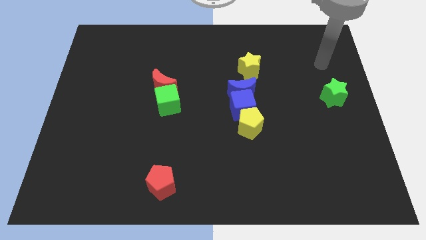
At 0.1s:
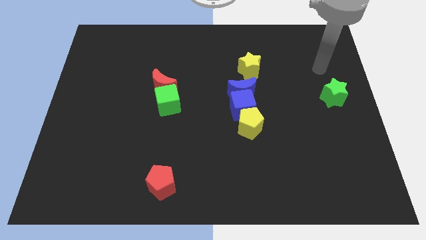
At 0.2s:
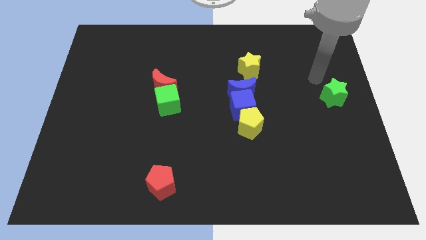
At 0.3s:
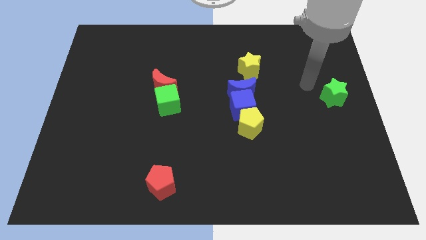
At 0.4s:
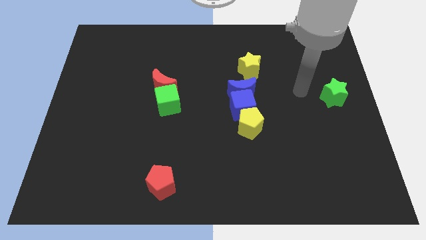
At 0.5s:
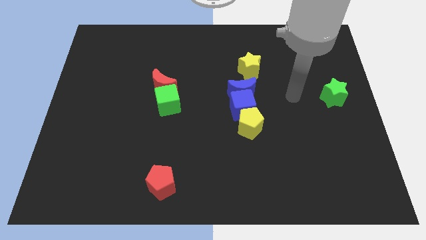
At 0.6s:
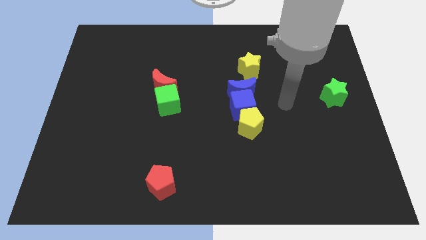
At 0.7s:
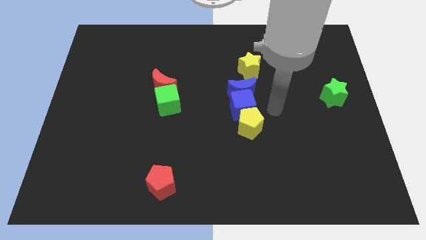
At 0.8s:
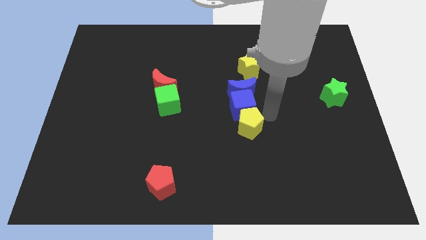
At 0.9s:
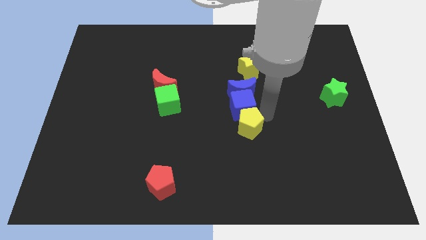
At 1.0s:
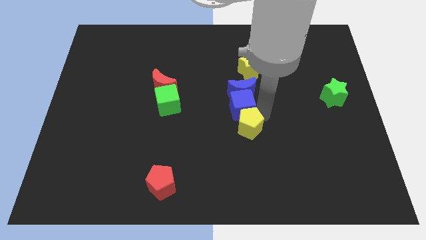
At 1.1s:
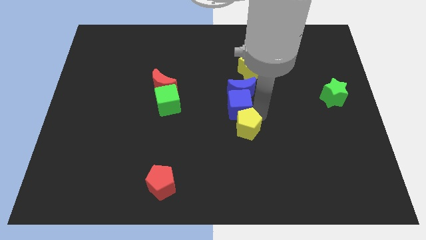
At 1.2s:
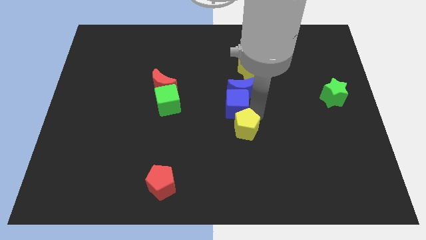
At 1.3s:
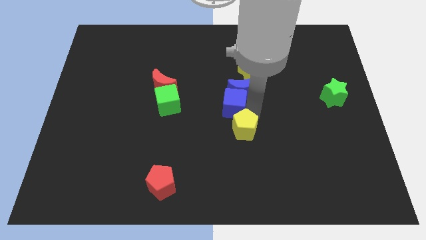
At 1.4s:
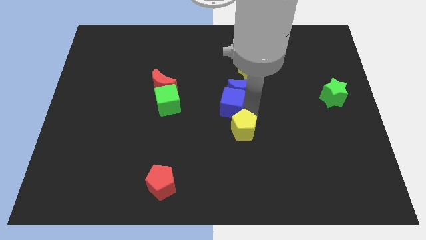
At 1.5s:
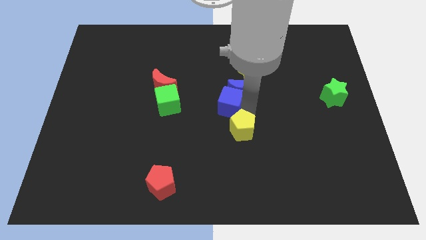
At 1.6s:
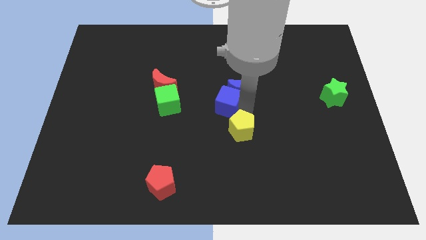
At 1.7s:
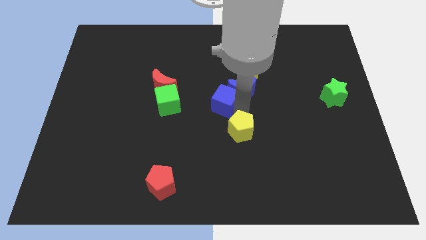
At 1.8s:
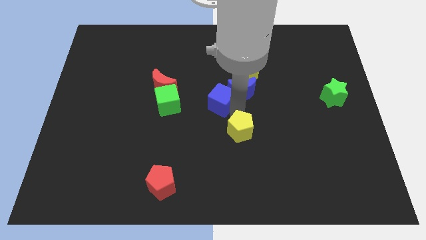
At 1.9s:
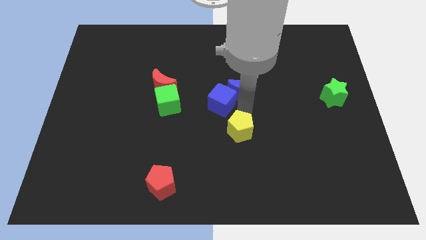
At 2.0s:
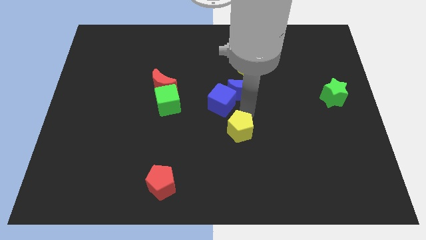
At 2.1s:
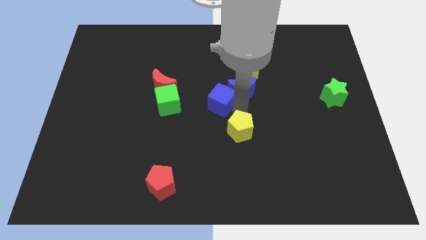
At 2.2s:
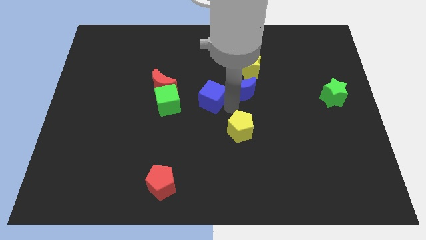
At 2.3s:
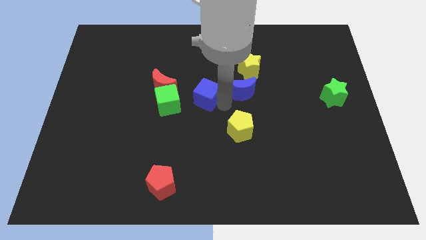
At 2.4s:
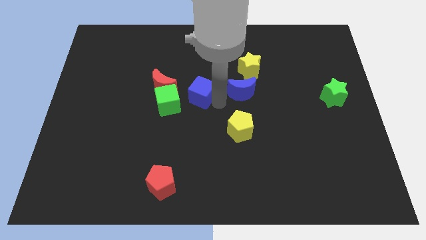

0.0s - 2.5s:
move the blue cube away from the blue moon and yellow pentagon

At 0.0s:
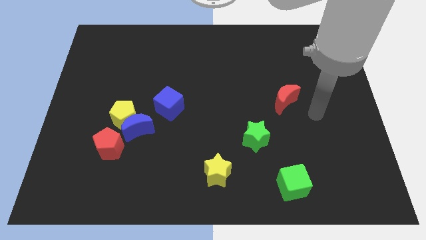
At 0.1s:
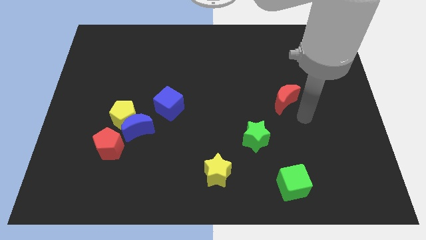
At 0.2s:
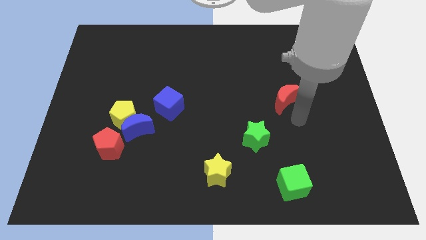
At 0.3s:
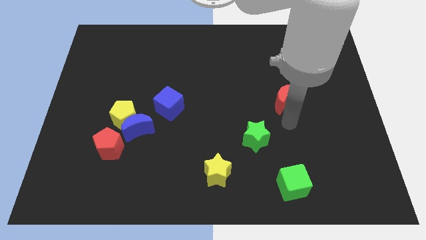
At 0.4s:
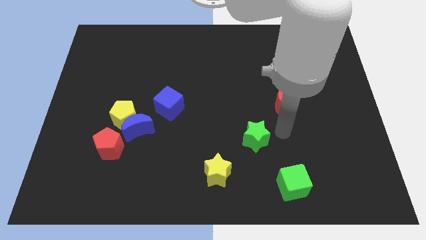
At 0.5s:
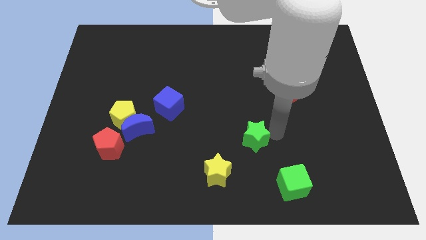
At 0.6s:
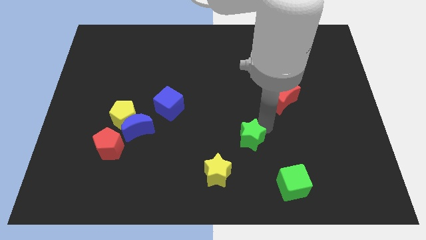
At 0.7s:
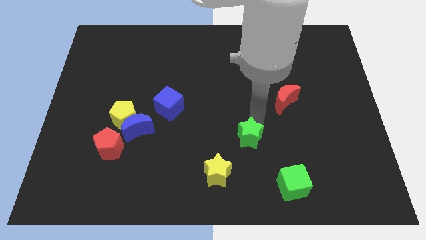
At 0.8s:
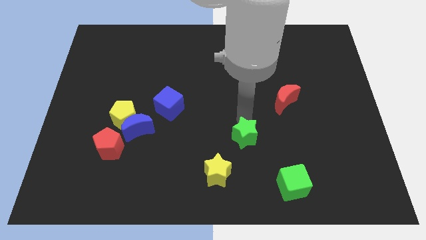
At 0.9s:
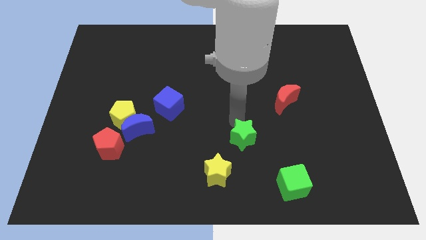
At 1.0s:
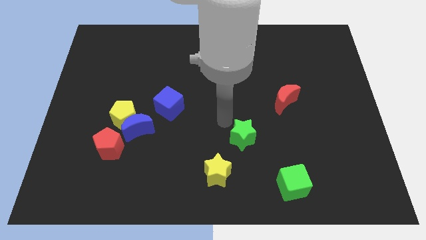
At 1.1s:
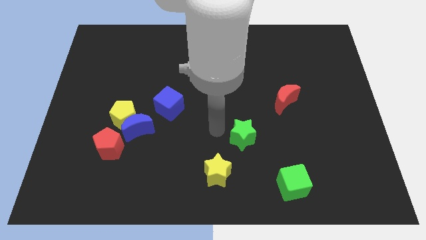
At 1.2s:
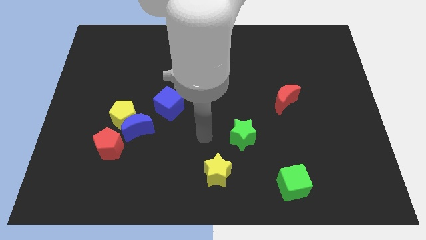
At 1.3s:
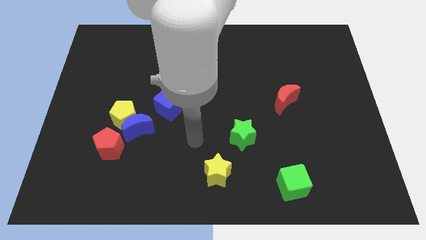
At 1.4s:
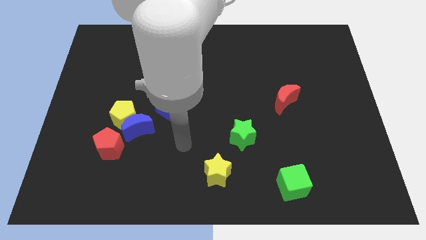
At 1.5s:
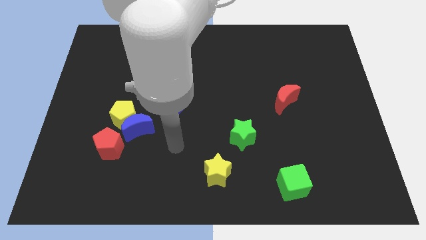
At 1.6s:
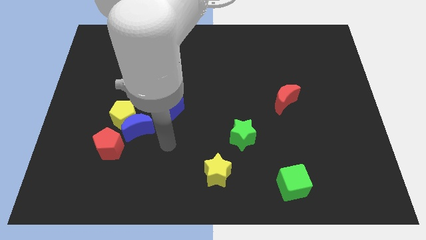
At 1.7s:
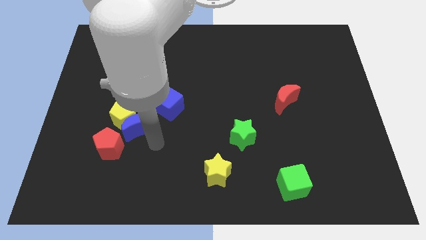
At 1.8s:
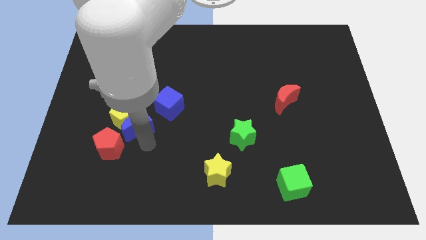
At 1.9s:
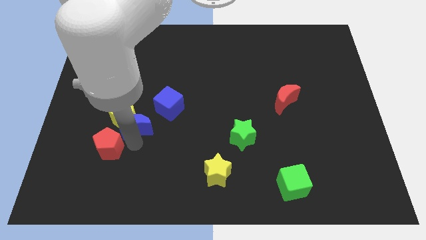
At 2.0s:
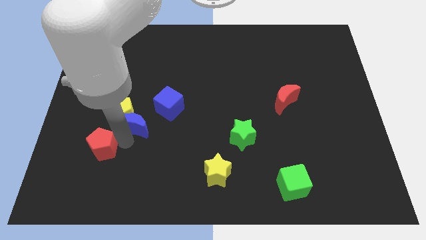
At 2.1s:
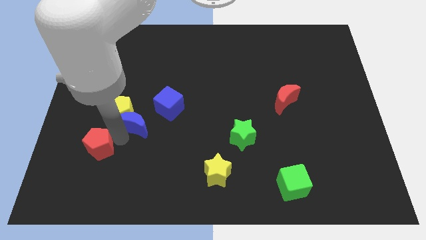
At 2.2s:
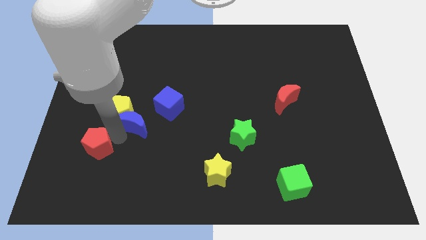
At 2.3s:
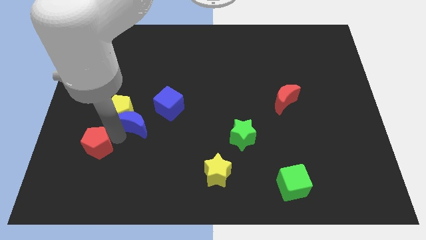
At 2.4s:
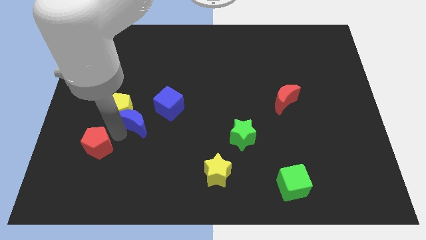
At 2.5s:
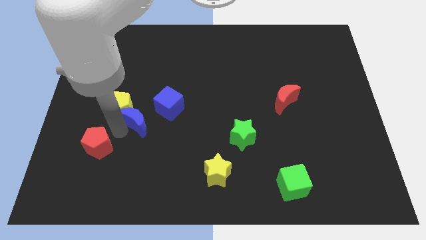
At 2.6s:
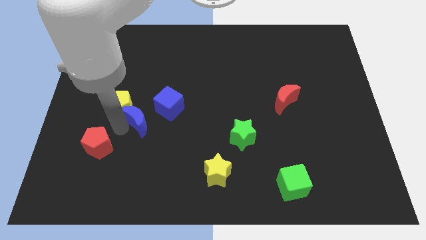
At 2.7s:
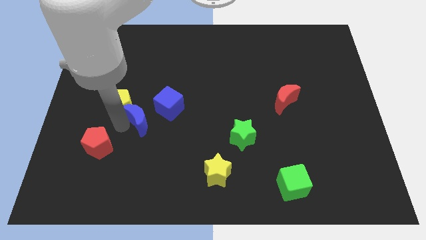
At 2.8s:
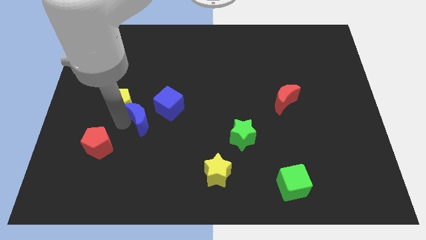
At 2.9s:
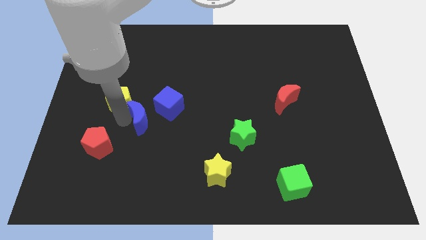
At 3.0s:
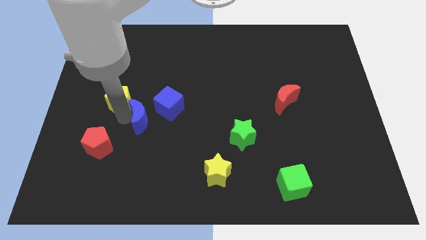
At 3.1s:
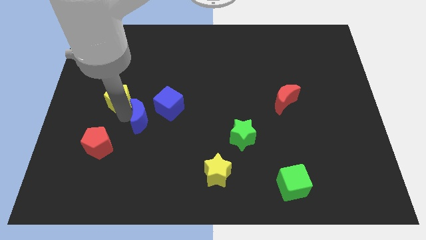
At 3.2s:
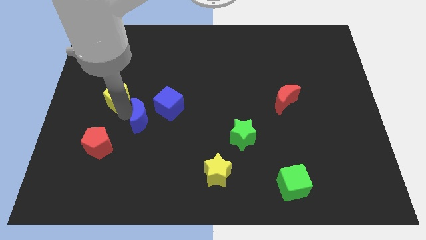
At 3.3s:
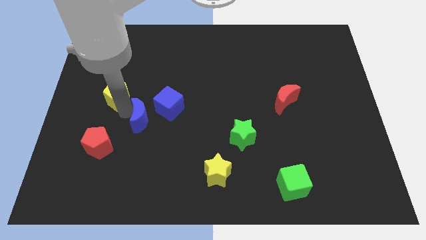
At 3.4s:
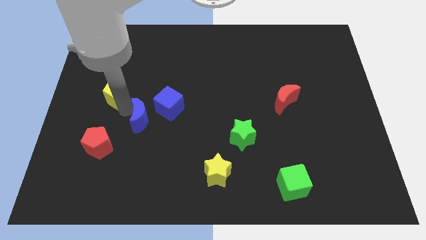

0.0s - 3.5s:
separate the yellow pentagon from the blue moon and red pentagon

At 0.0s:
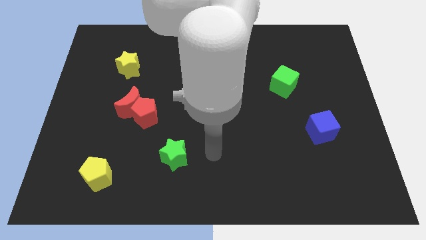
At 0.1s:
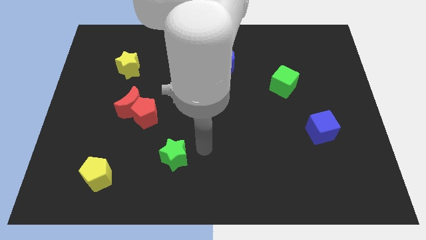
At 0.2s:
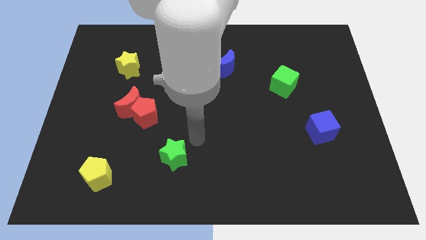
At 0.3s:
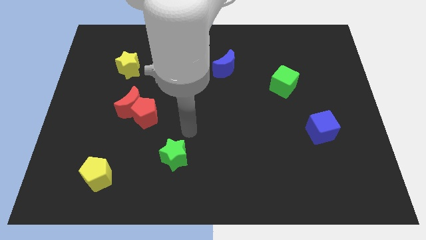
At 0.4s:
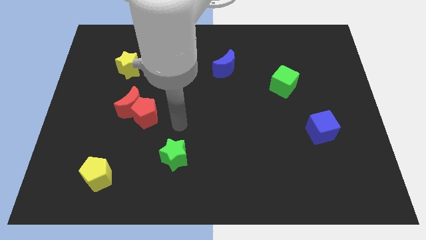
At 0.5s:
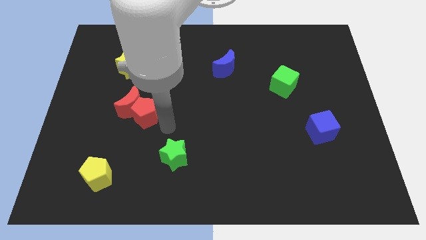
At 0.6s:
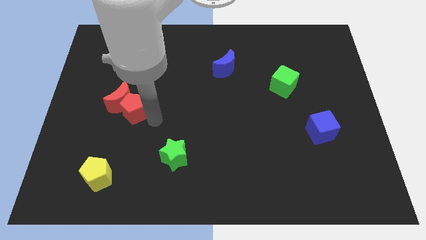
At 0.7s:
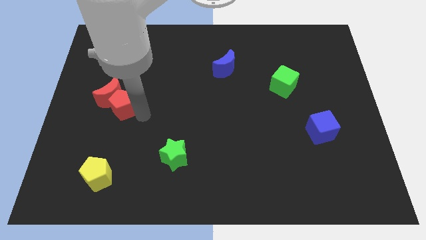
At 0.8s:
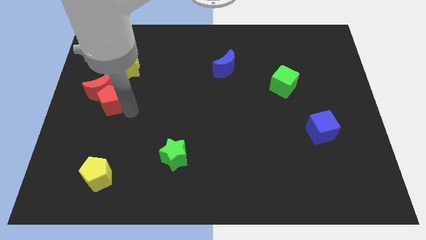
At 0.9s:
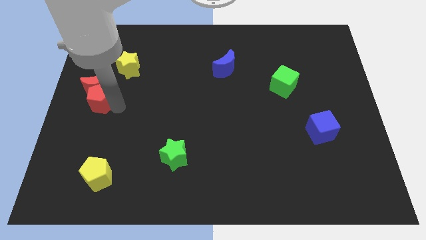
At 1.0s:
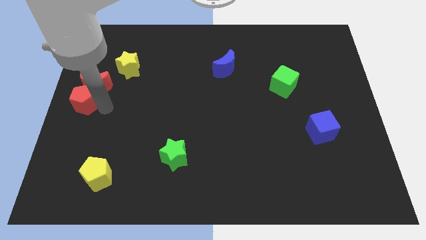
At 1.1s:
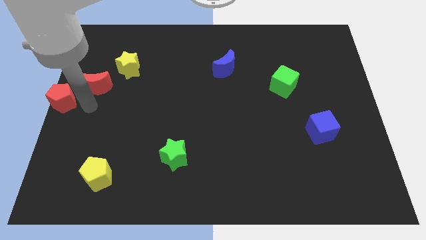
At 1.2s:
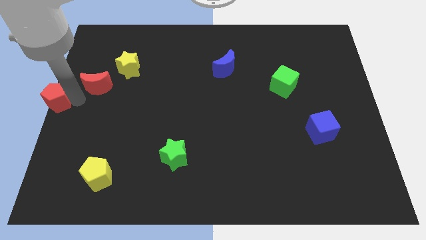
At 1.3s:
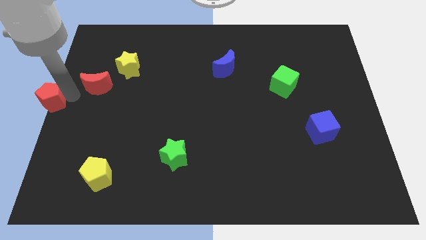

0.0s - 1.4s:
pull the red moon apart from the red pentagon

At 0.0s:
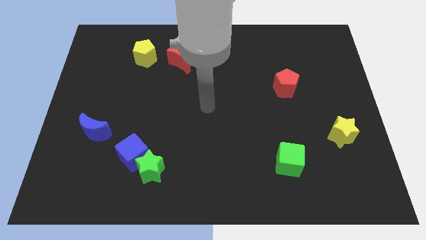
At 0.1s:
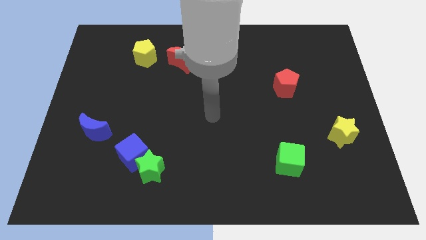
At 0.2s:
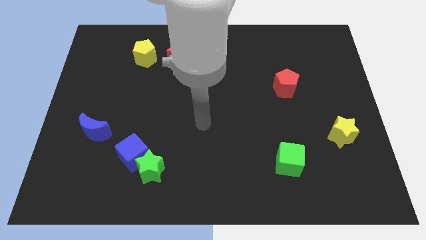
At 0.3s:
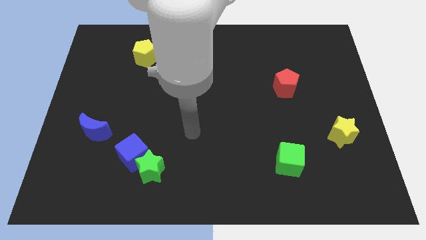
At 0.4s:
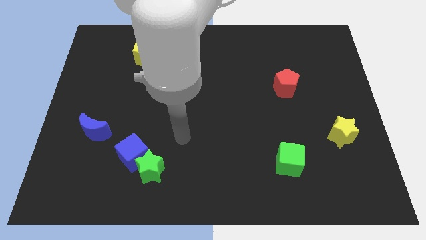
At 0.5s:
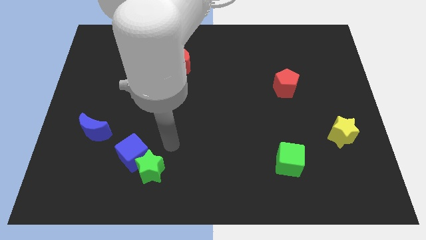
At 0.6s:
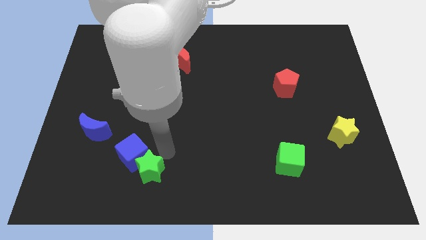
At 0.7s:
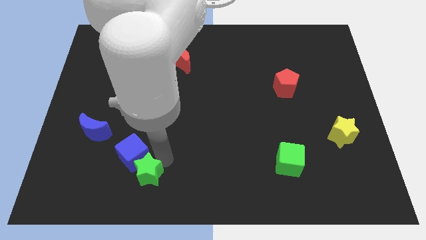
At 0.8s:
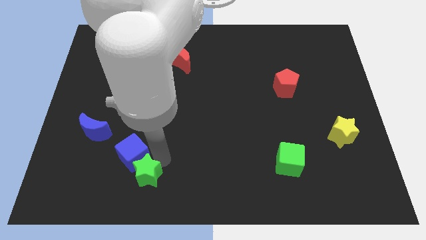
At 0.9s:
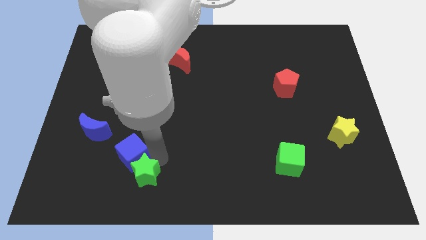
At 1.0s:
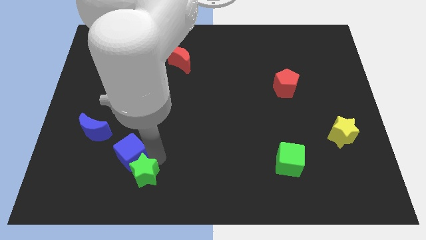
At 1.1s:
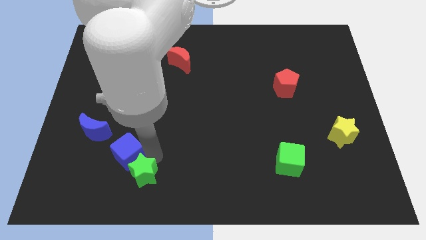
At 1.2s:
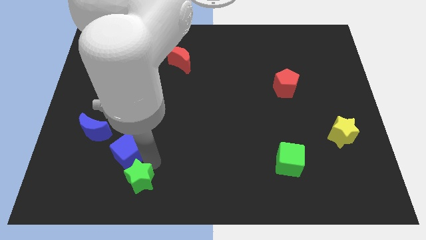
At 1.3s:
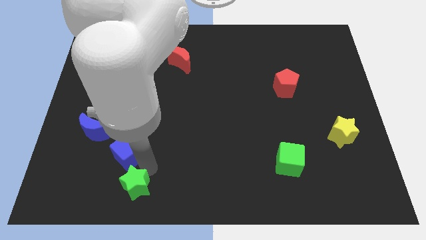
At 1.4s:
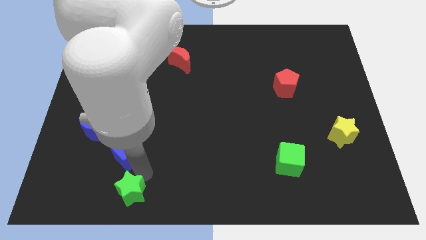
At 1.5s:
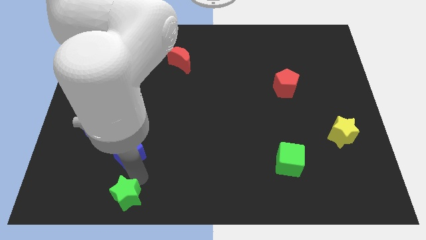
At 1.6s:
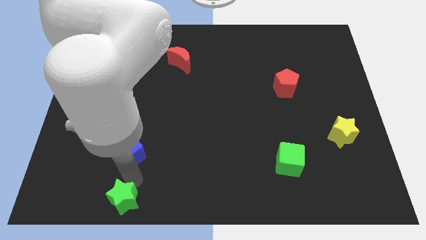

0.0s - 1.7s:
move the blue cube away from the green star

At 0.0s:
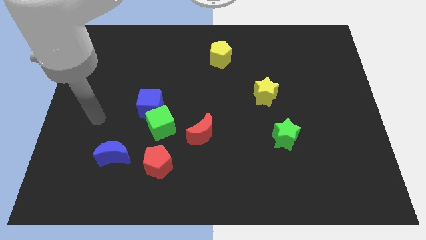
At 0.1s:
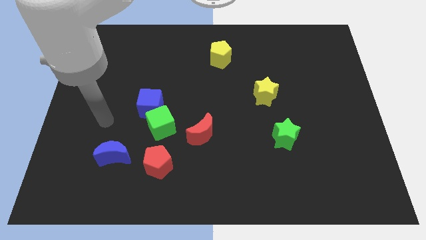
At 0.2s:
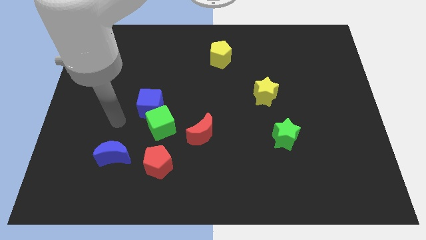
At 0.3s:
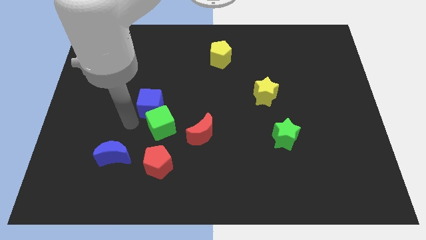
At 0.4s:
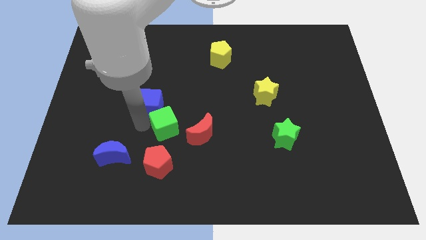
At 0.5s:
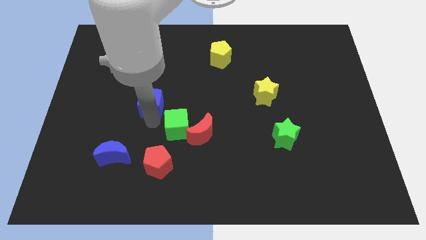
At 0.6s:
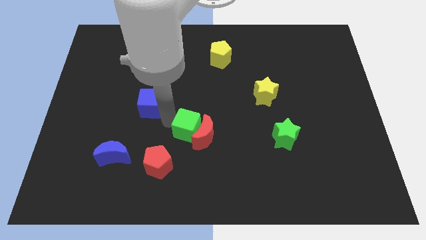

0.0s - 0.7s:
pull the blue cube apart from the green cube
